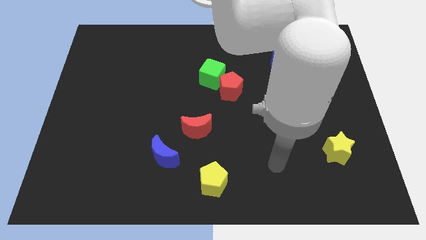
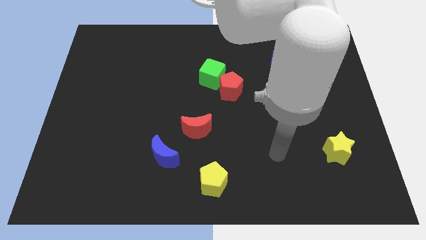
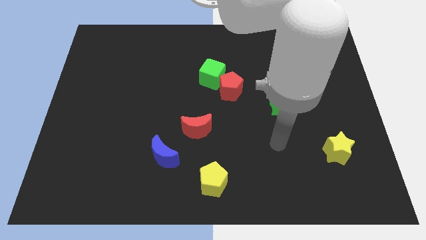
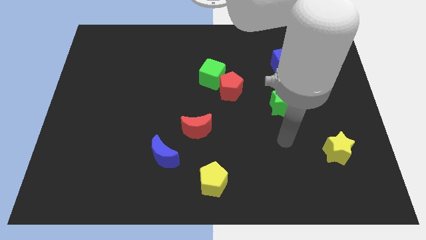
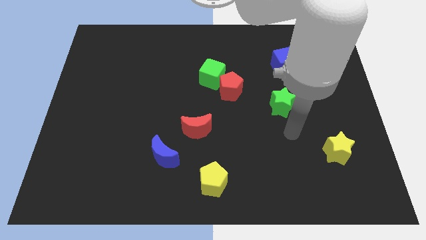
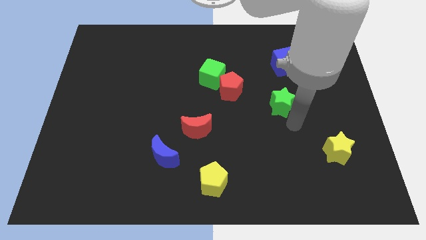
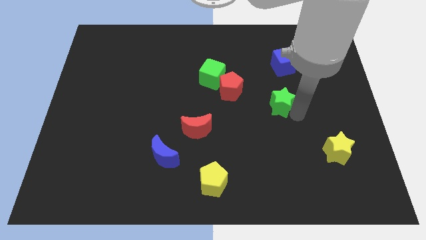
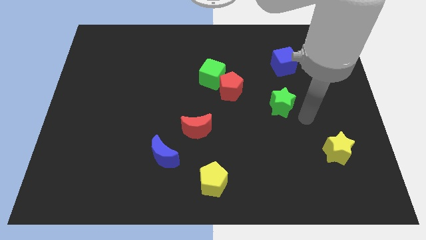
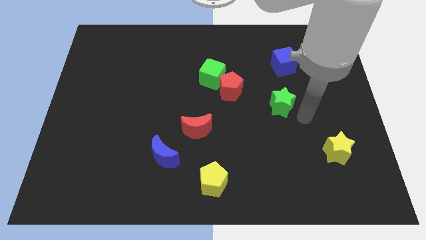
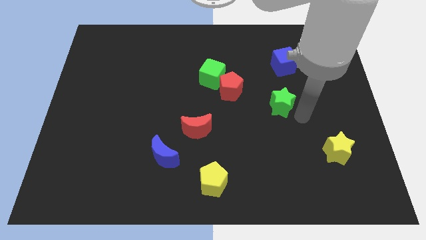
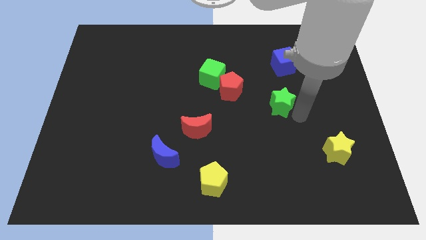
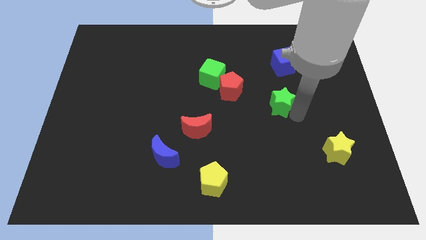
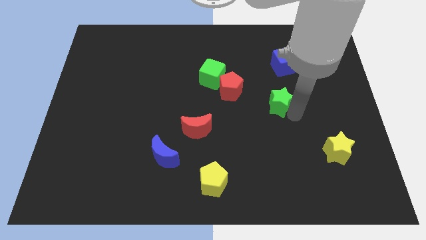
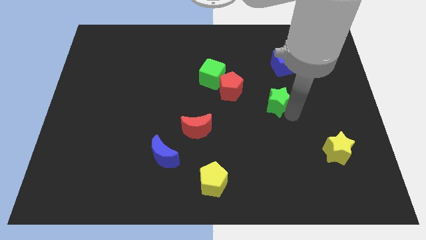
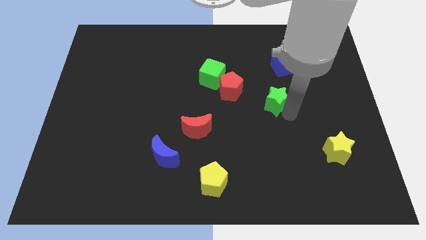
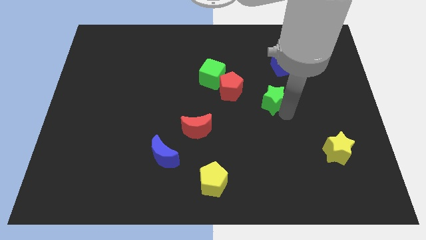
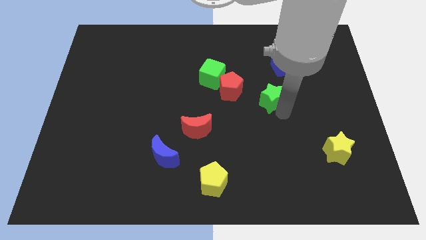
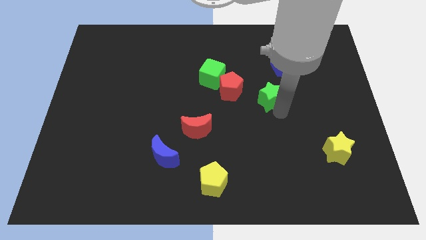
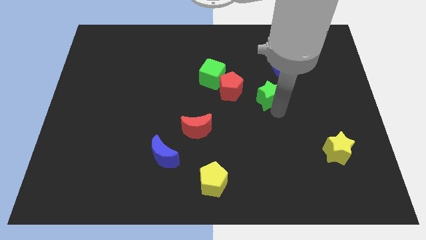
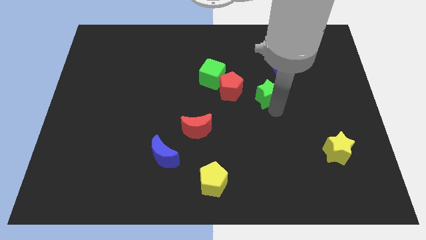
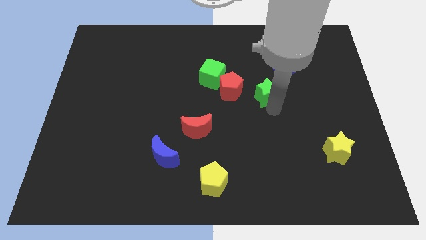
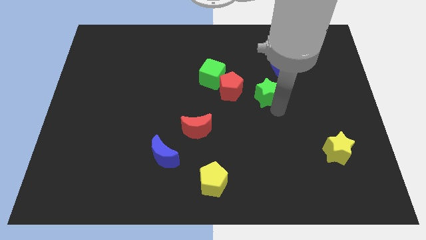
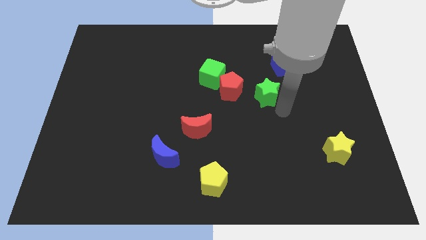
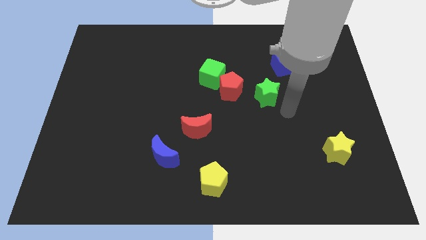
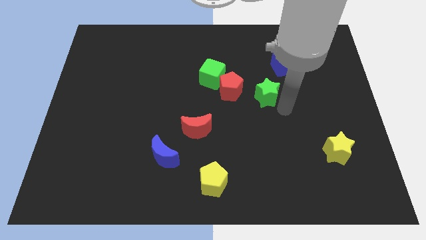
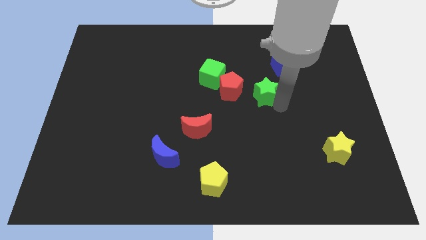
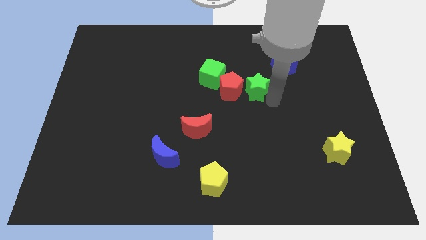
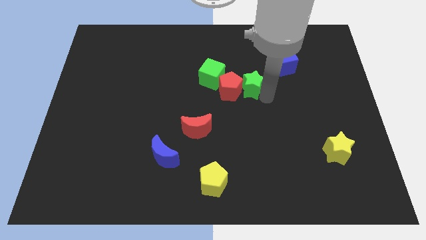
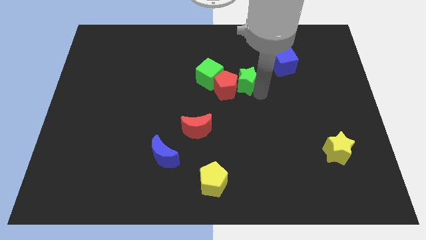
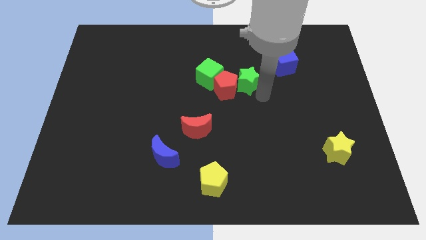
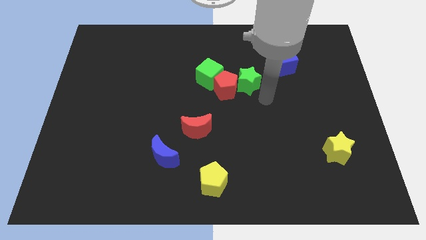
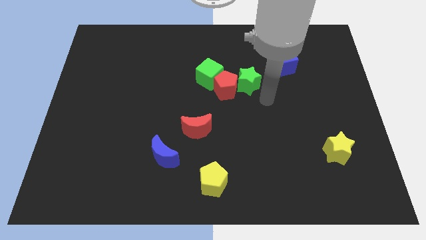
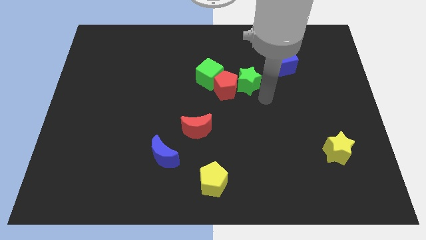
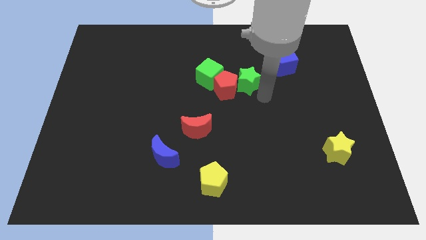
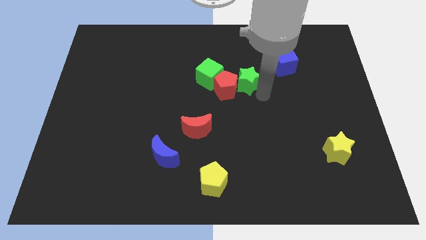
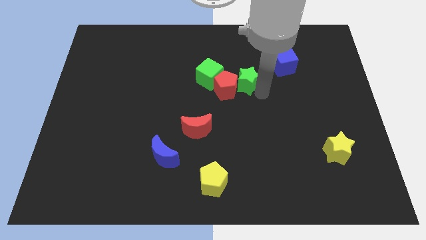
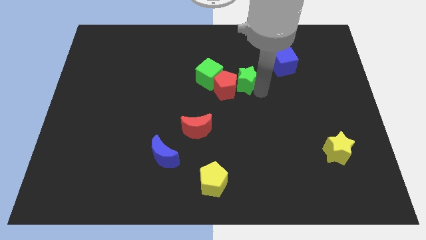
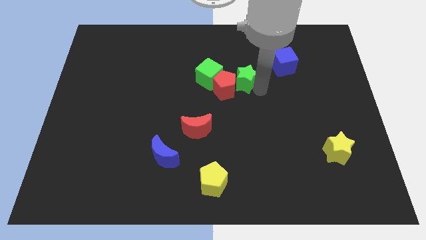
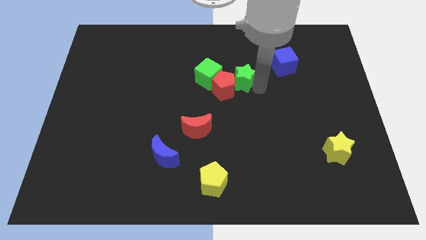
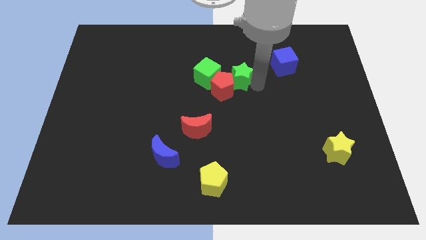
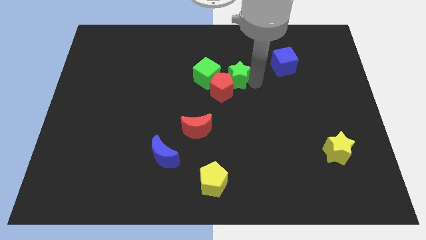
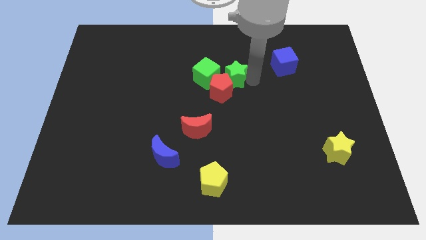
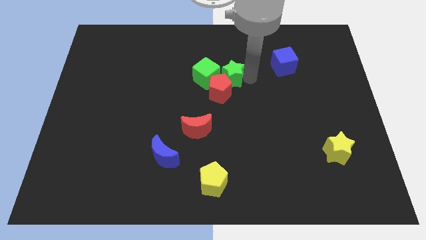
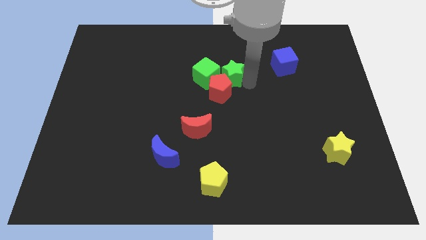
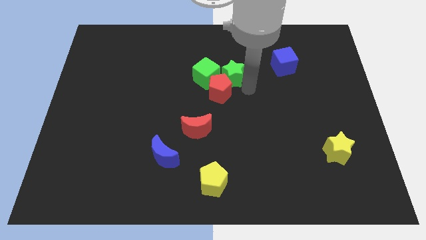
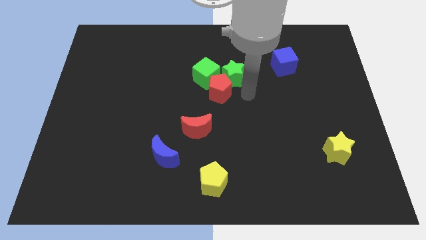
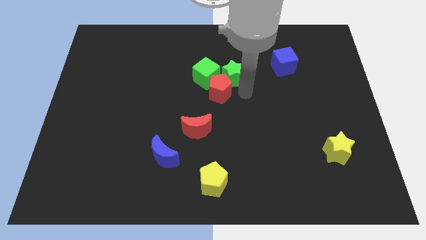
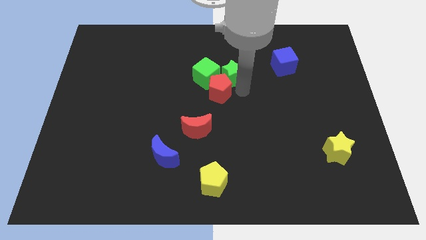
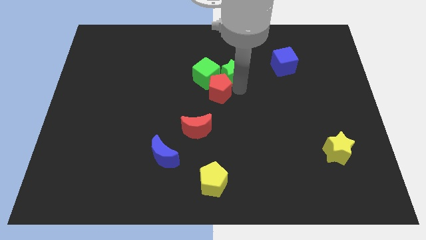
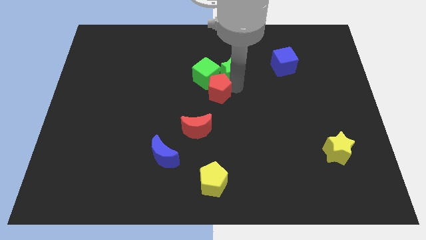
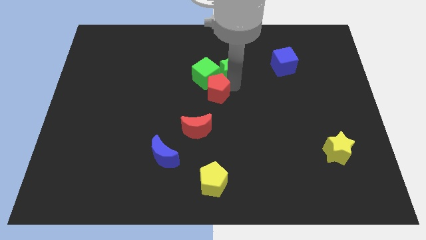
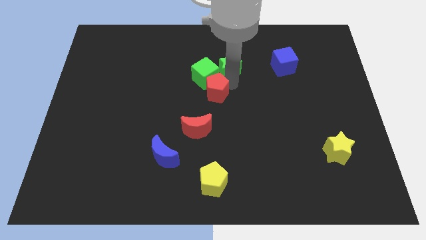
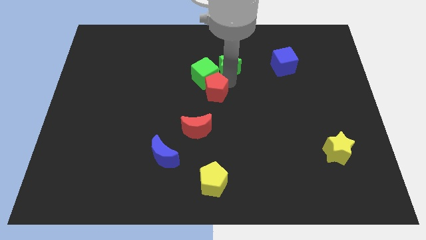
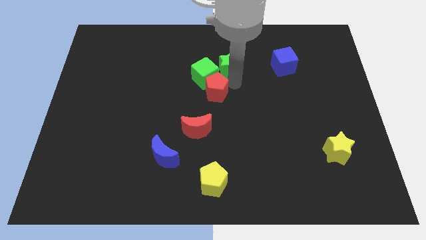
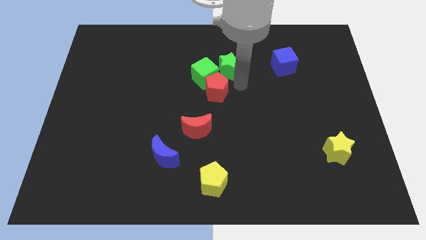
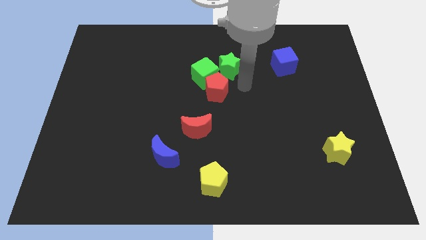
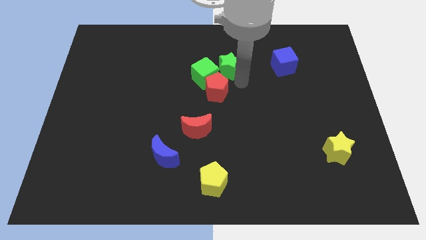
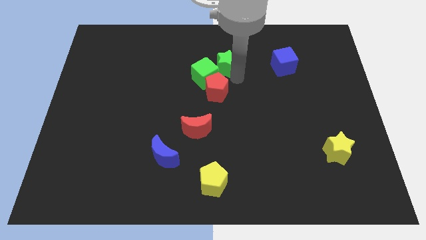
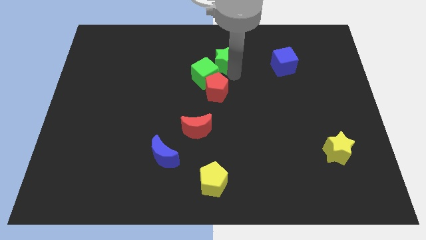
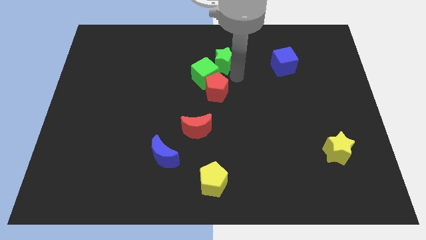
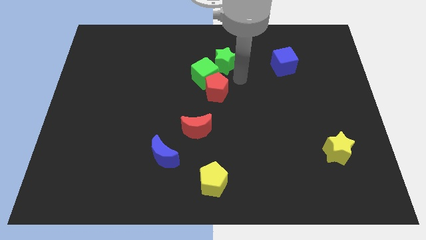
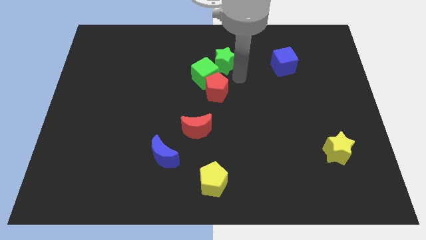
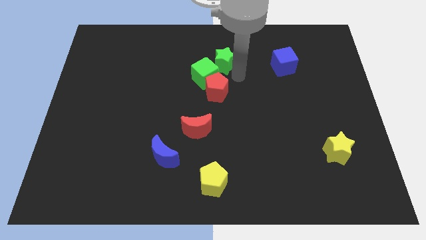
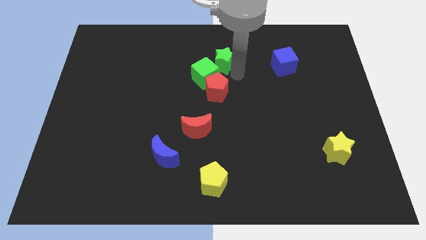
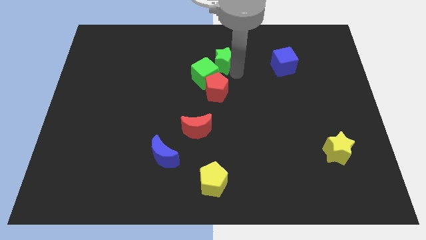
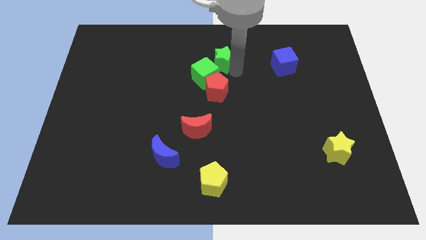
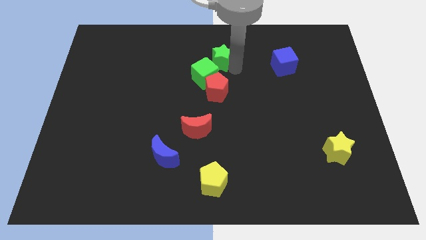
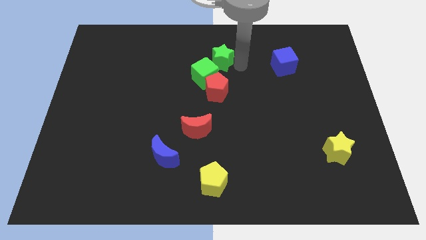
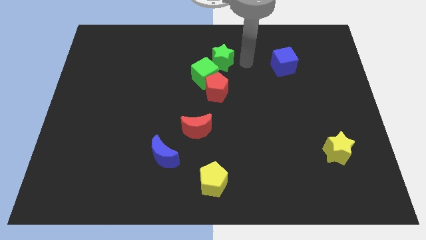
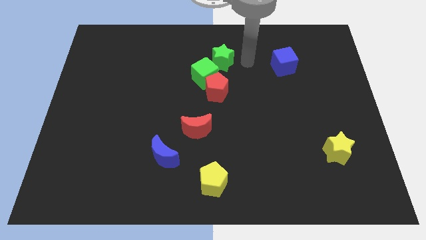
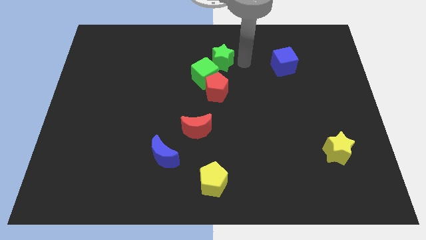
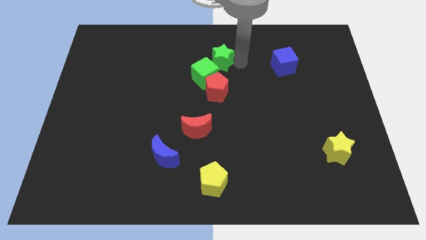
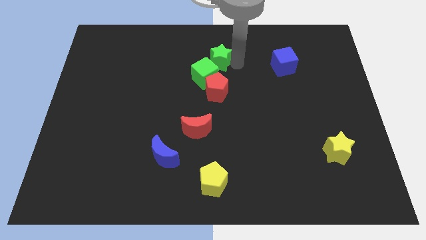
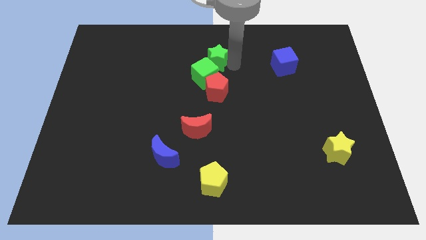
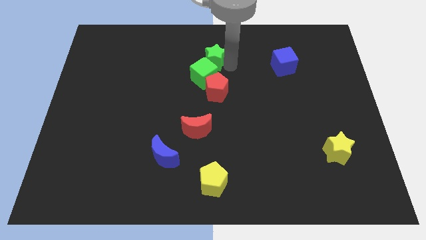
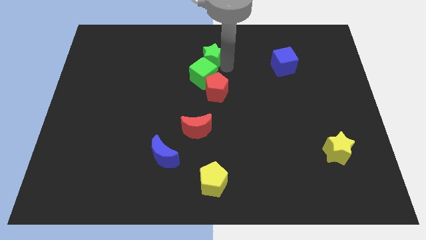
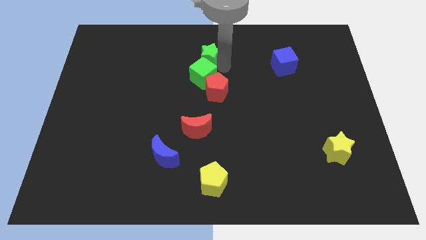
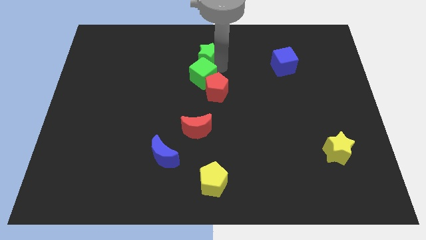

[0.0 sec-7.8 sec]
put the green star to the top left side of the green cube
